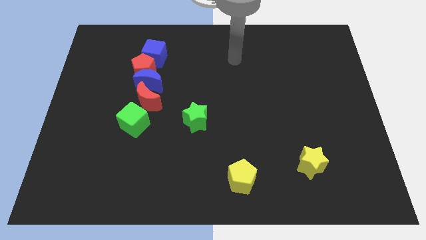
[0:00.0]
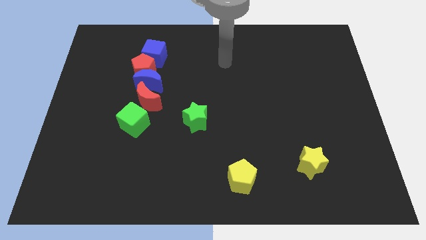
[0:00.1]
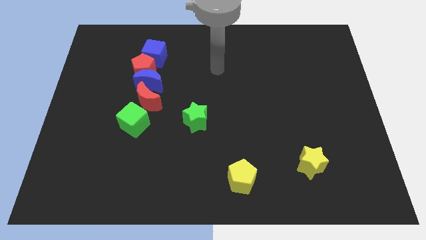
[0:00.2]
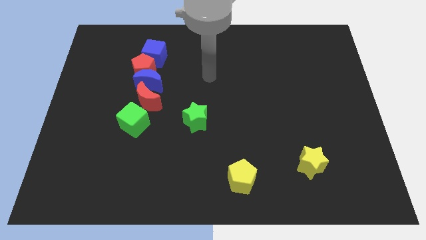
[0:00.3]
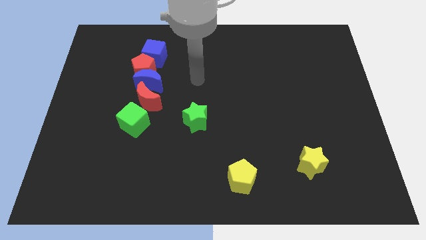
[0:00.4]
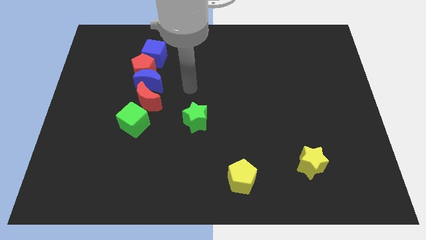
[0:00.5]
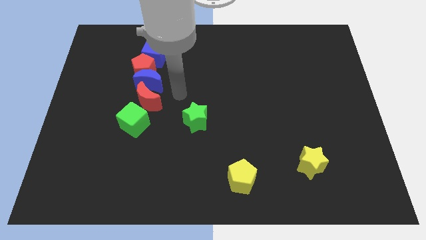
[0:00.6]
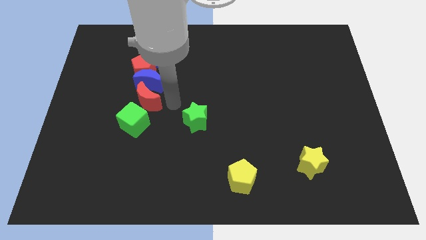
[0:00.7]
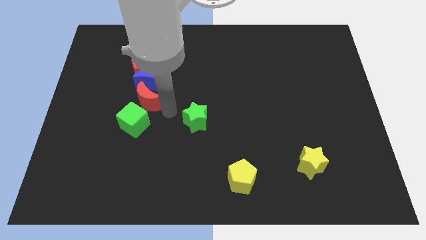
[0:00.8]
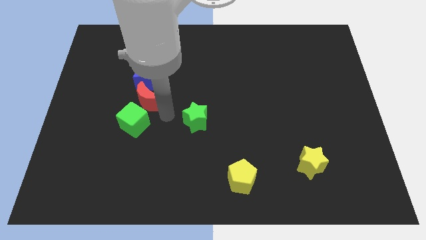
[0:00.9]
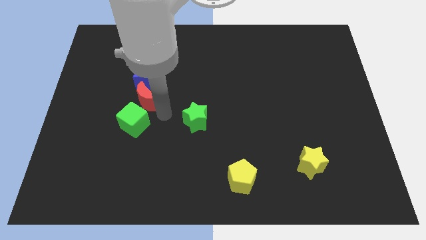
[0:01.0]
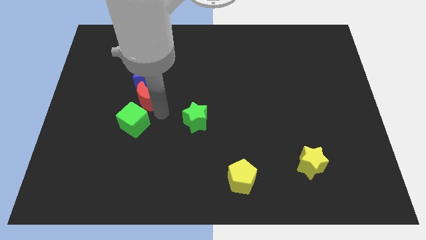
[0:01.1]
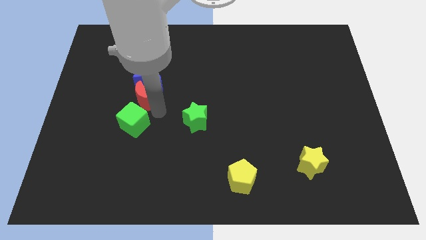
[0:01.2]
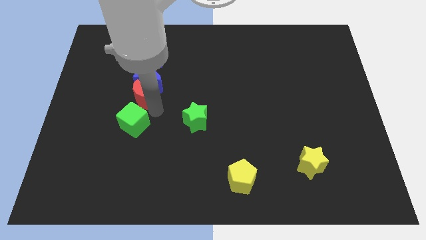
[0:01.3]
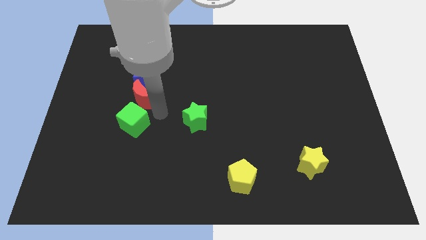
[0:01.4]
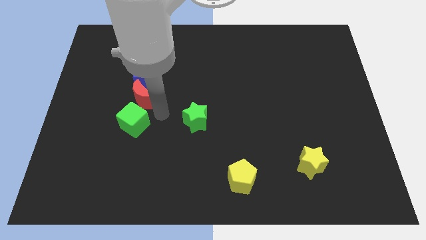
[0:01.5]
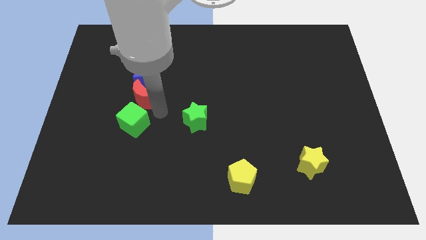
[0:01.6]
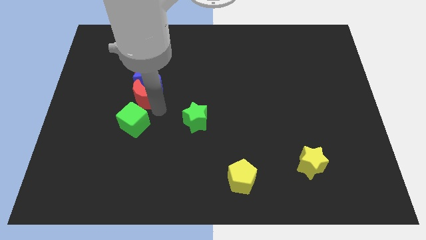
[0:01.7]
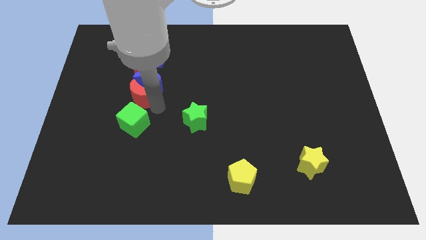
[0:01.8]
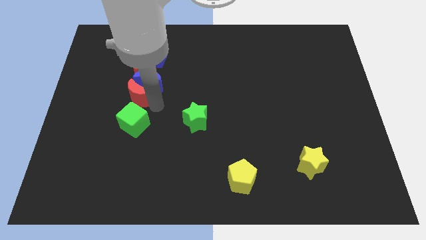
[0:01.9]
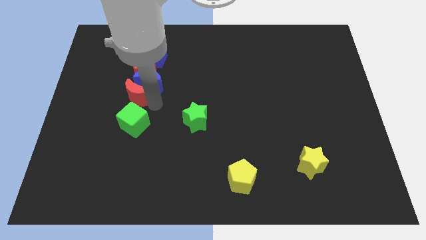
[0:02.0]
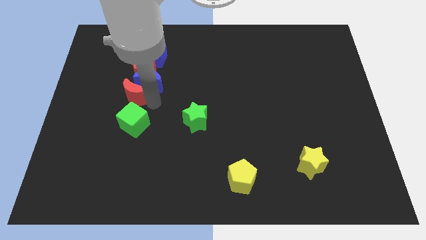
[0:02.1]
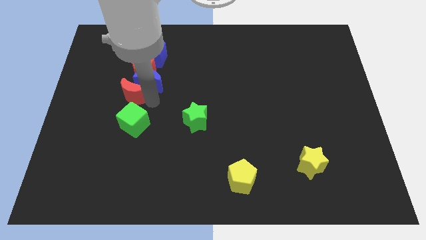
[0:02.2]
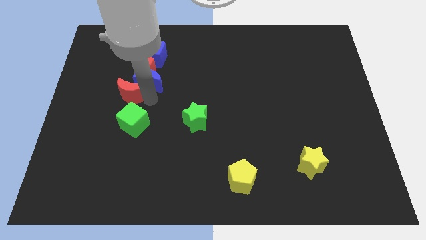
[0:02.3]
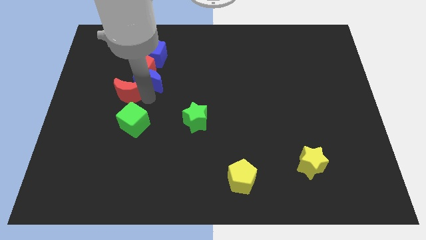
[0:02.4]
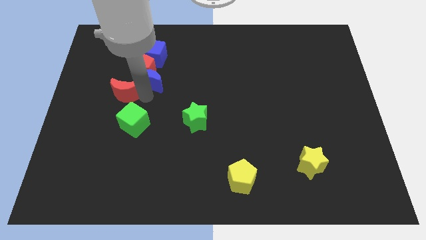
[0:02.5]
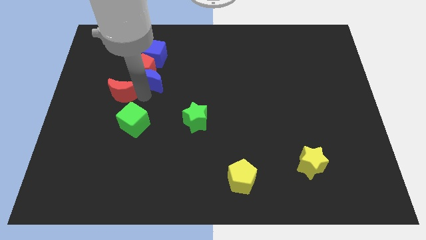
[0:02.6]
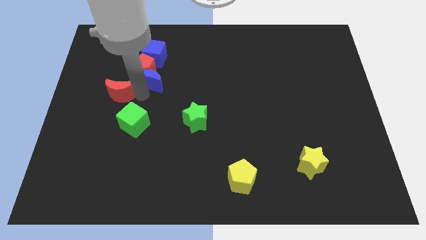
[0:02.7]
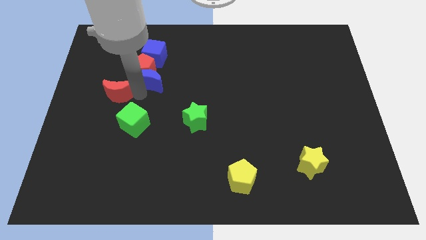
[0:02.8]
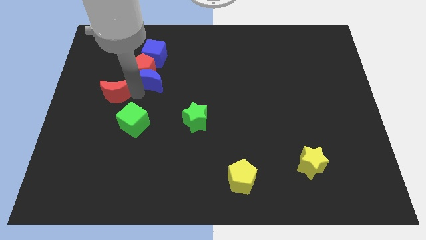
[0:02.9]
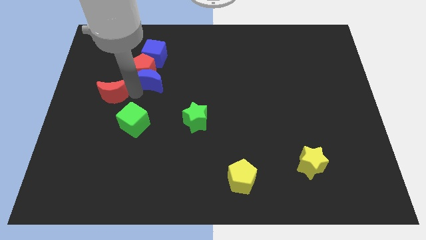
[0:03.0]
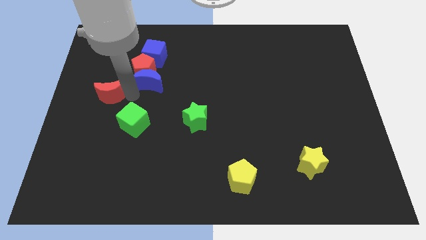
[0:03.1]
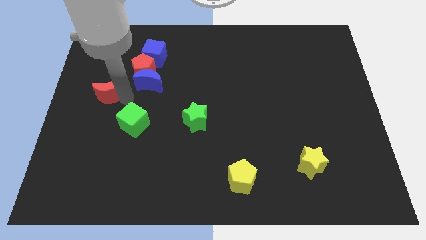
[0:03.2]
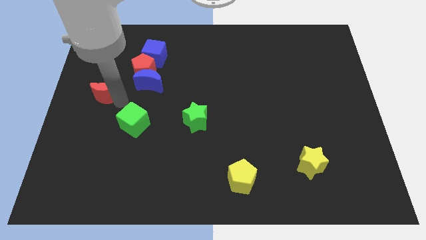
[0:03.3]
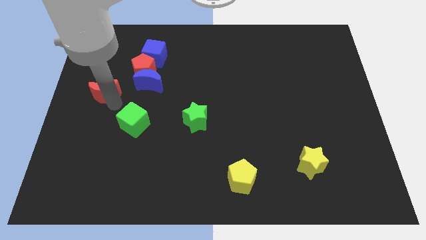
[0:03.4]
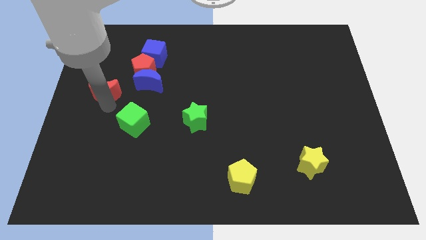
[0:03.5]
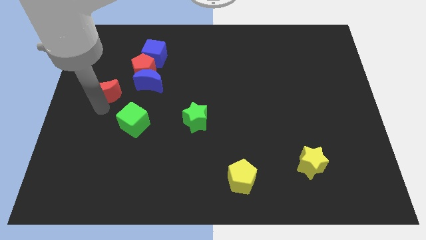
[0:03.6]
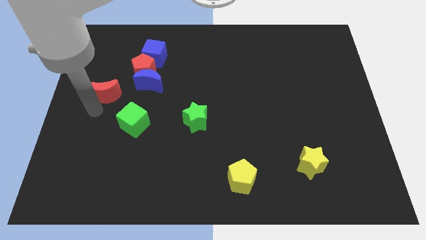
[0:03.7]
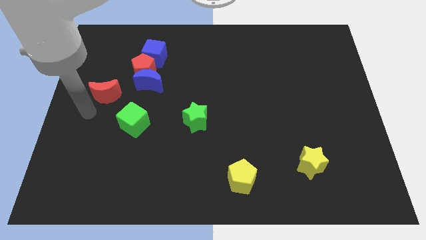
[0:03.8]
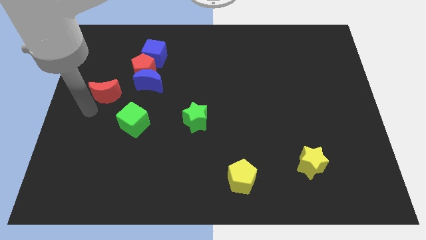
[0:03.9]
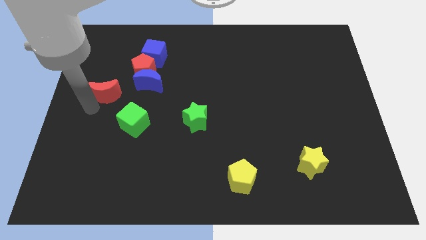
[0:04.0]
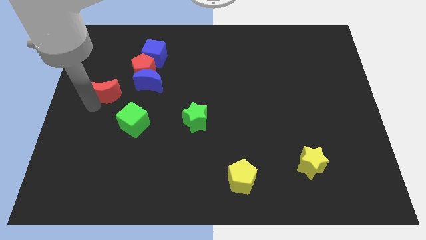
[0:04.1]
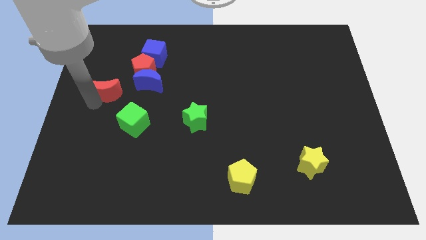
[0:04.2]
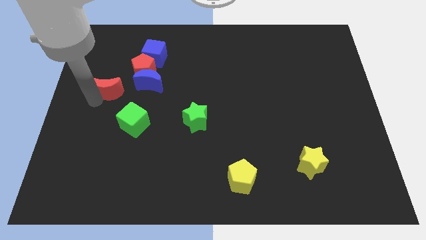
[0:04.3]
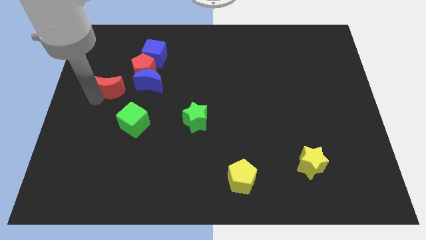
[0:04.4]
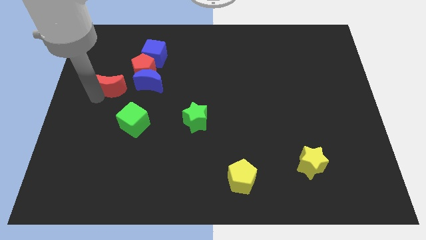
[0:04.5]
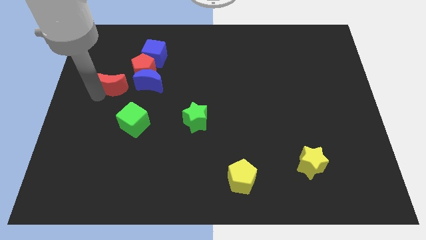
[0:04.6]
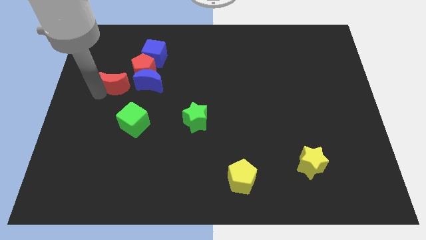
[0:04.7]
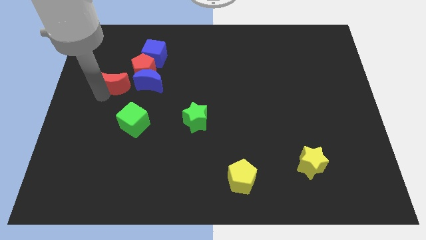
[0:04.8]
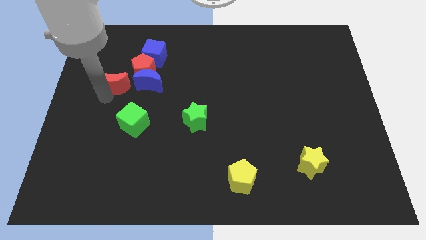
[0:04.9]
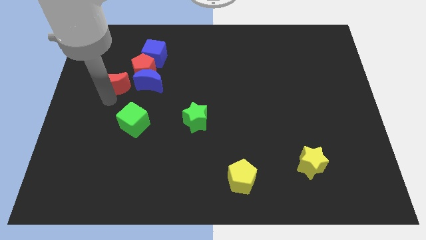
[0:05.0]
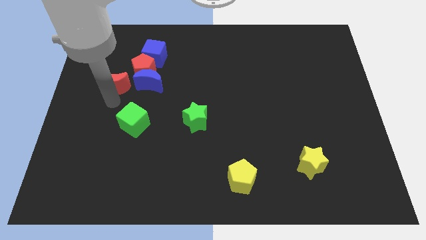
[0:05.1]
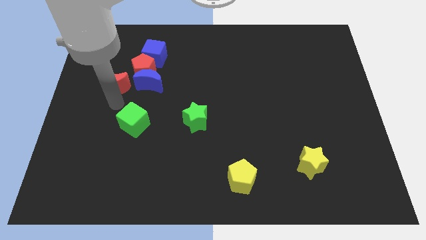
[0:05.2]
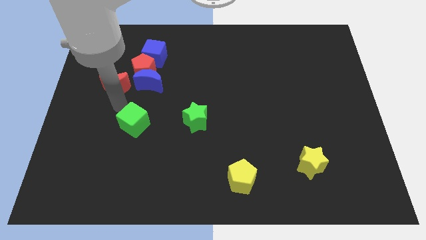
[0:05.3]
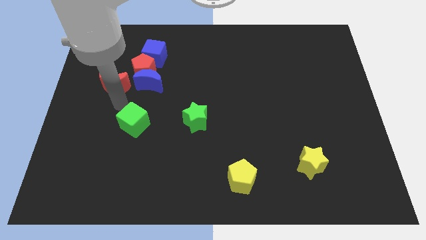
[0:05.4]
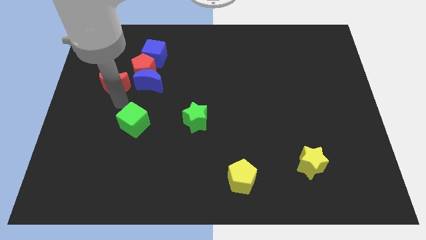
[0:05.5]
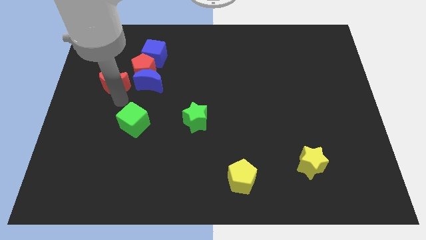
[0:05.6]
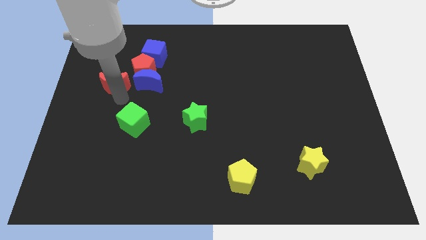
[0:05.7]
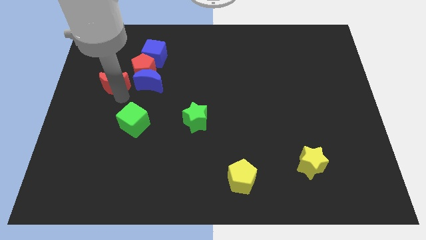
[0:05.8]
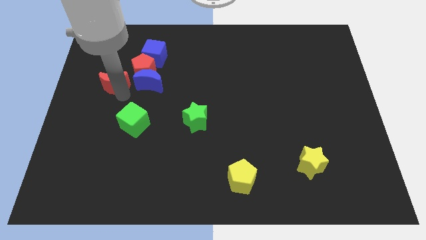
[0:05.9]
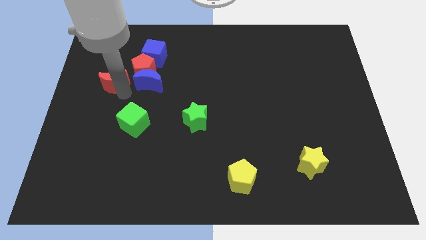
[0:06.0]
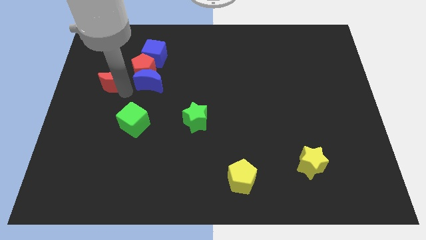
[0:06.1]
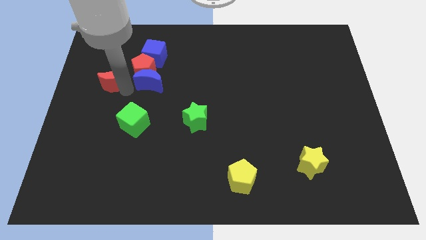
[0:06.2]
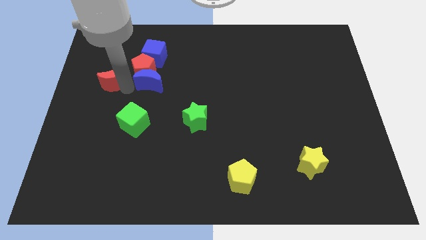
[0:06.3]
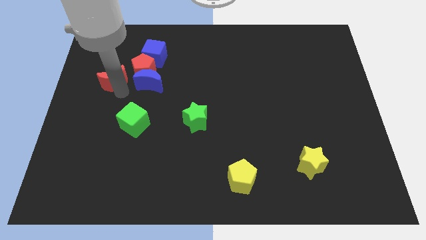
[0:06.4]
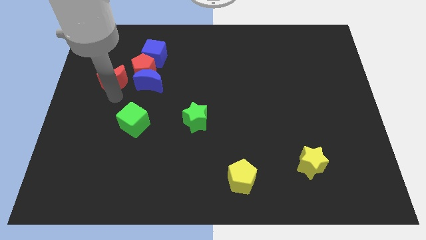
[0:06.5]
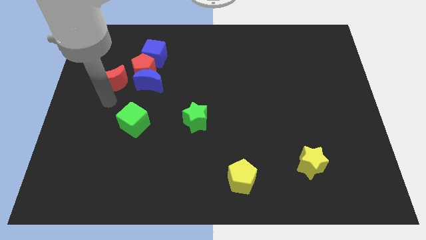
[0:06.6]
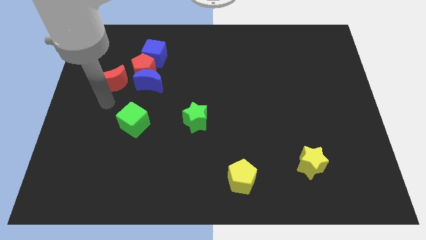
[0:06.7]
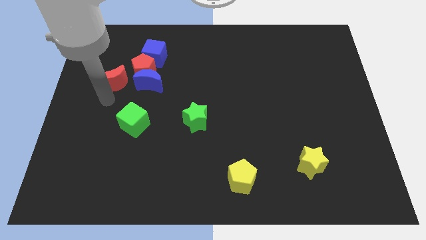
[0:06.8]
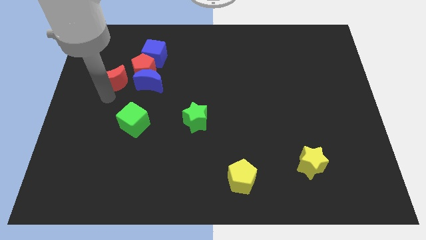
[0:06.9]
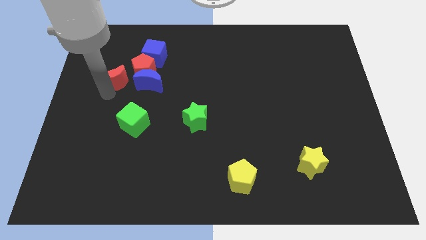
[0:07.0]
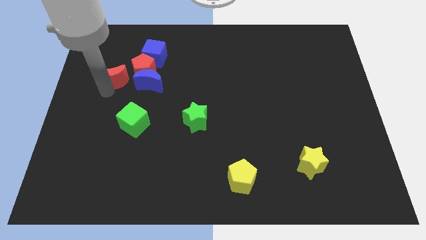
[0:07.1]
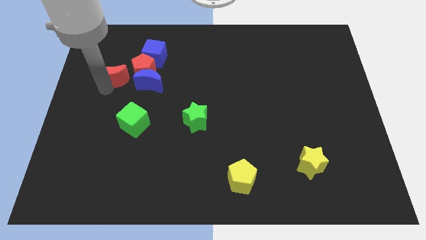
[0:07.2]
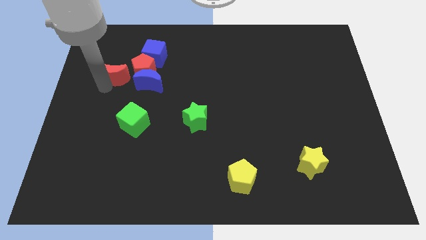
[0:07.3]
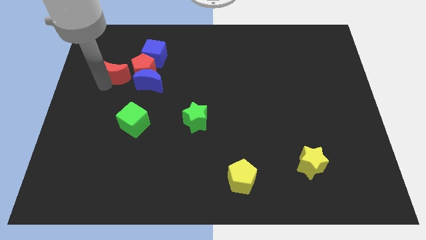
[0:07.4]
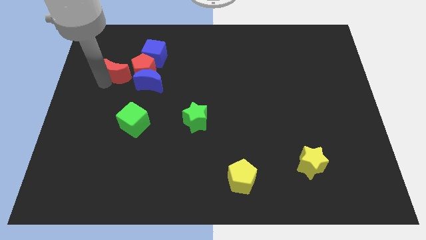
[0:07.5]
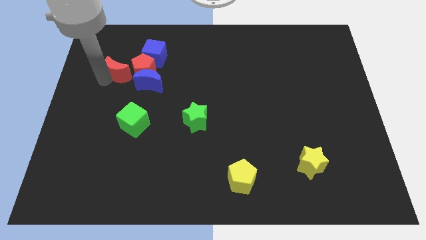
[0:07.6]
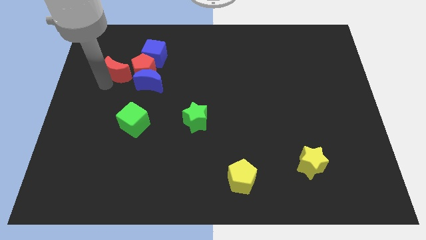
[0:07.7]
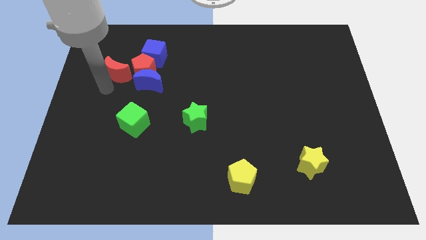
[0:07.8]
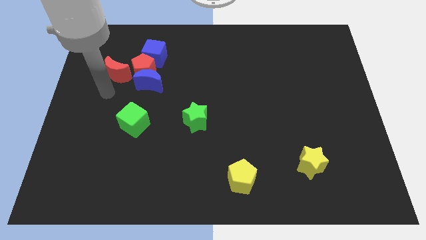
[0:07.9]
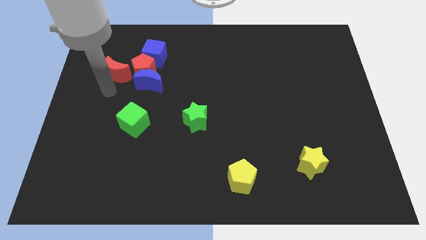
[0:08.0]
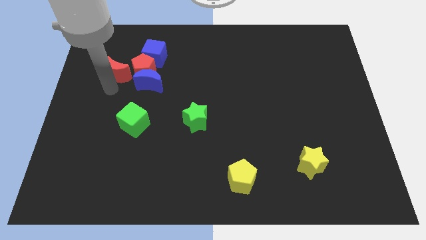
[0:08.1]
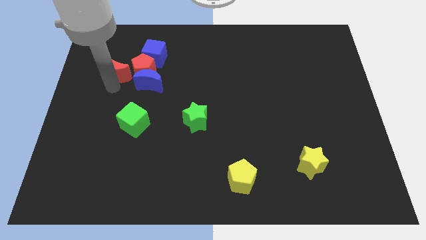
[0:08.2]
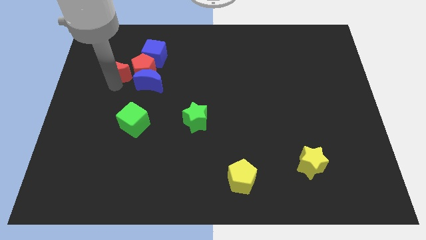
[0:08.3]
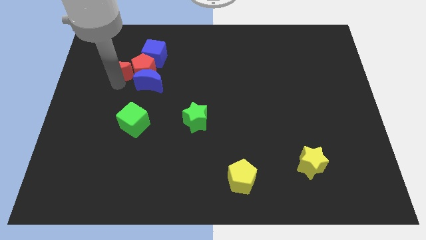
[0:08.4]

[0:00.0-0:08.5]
push the red moon to the top left of the red pentagon
